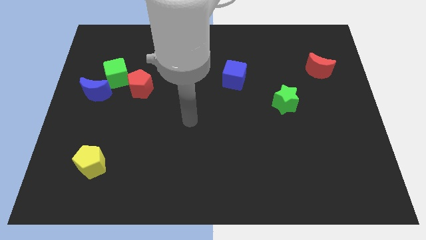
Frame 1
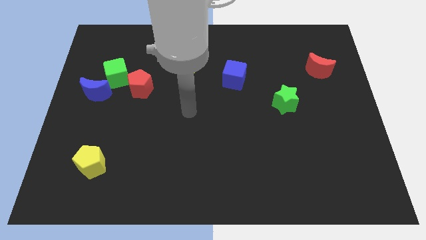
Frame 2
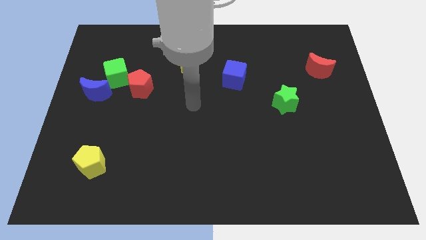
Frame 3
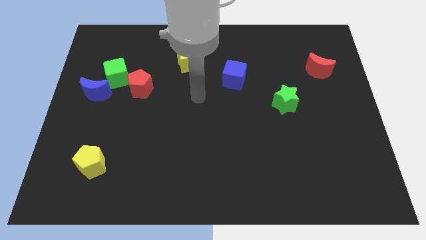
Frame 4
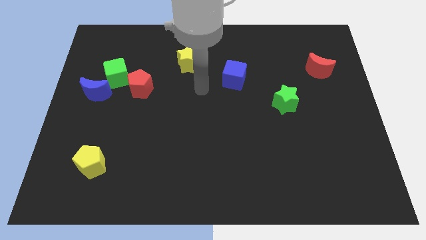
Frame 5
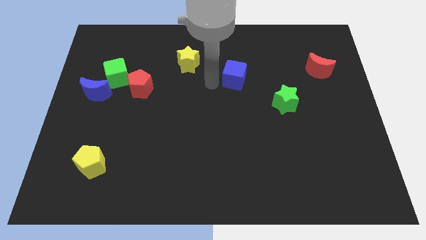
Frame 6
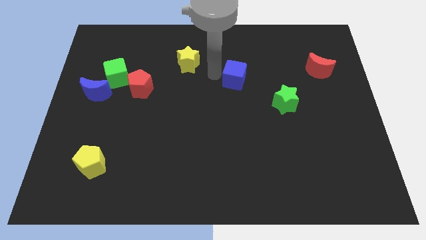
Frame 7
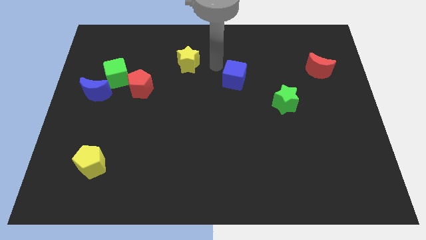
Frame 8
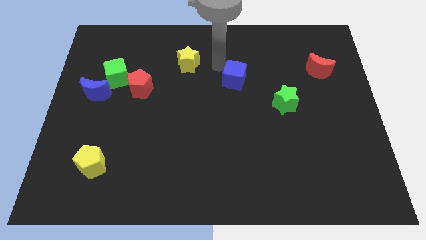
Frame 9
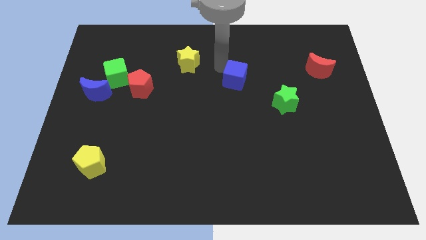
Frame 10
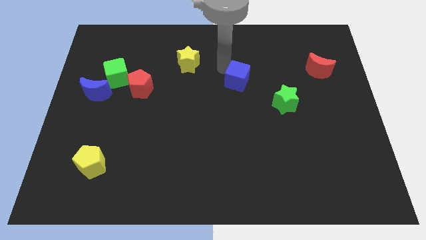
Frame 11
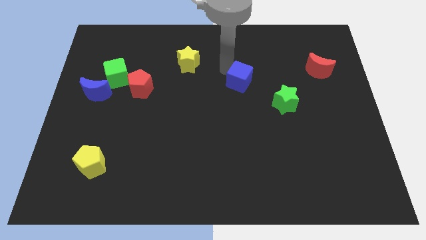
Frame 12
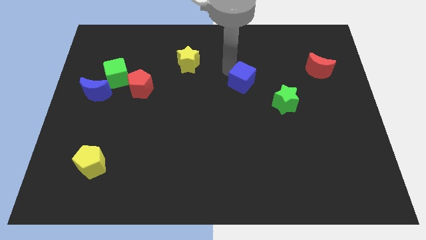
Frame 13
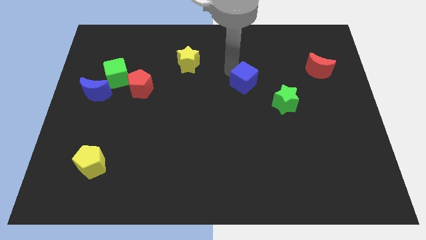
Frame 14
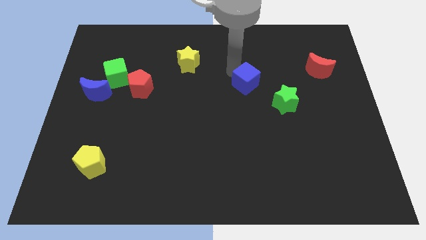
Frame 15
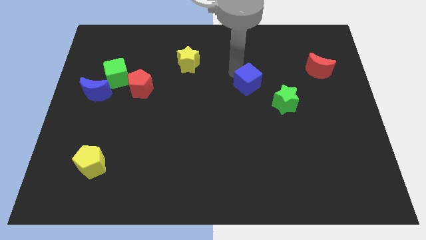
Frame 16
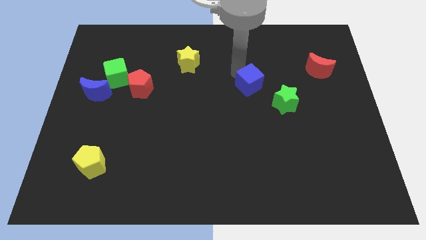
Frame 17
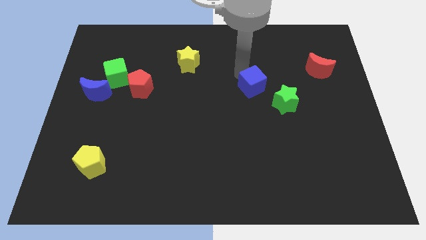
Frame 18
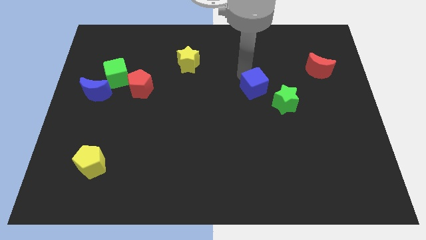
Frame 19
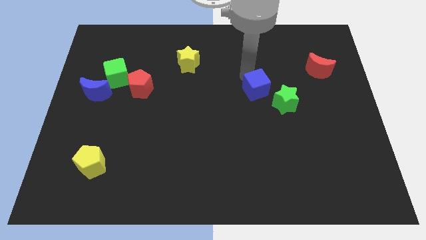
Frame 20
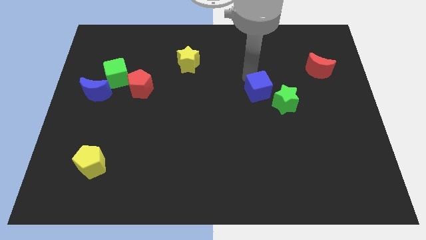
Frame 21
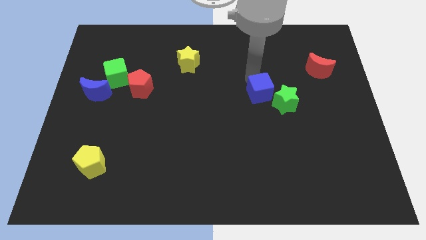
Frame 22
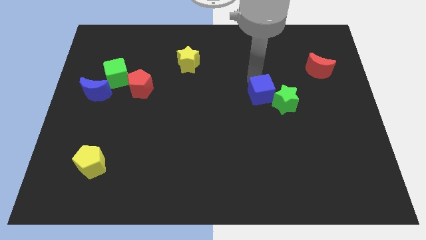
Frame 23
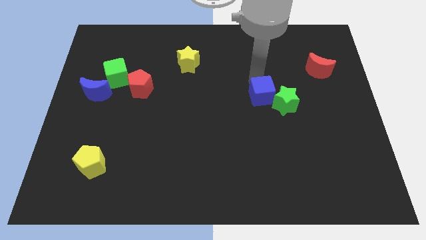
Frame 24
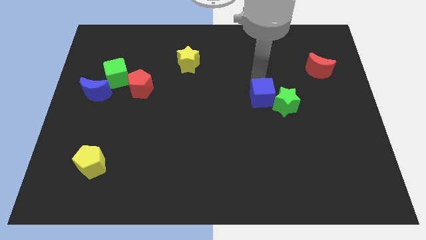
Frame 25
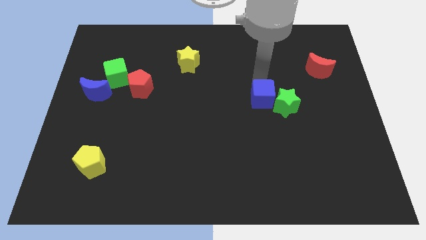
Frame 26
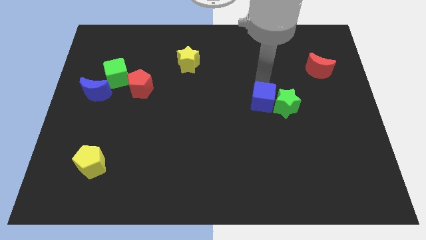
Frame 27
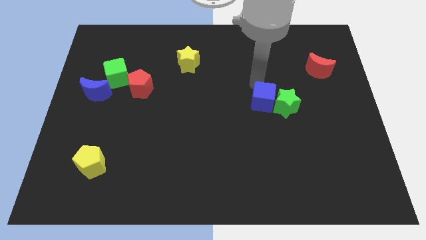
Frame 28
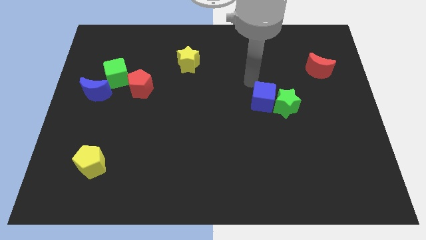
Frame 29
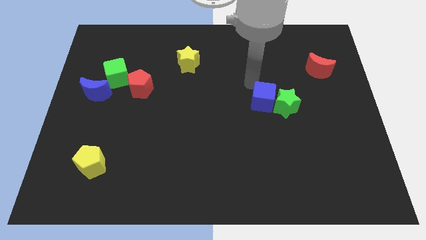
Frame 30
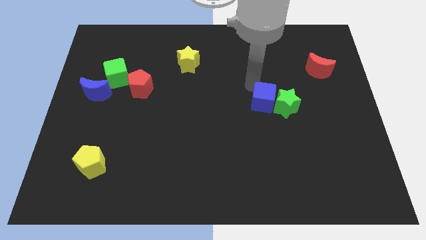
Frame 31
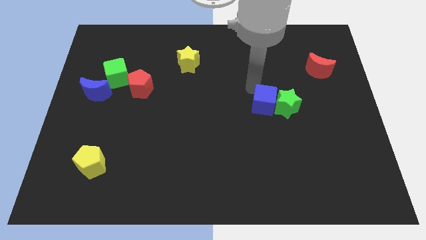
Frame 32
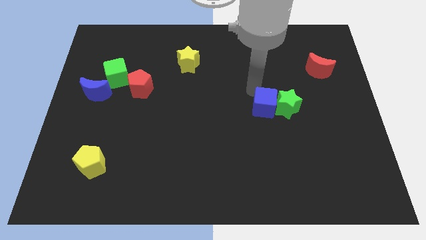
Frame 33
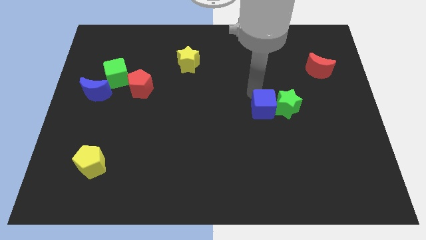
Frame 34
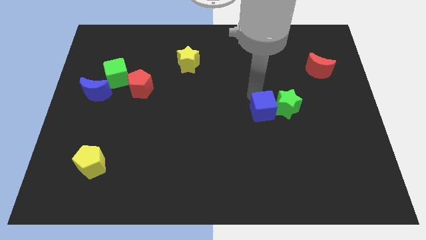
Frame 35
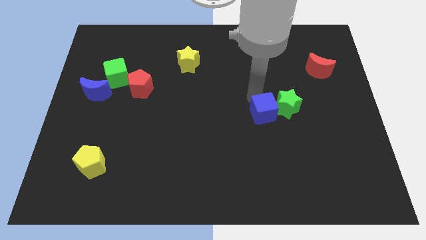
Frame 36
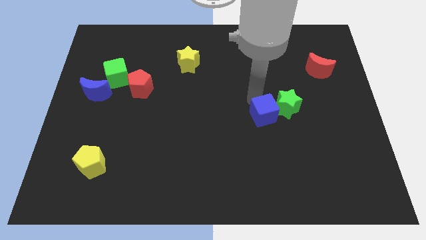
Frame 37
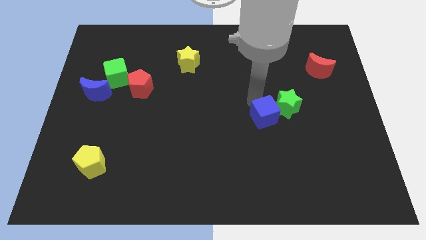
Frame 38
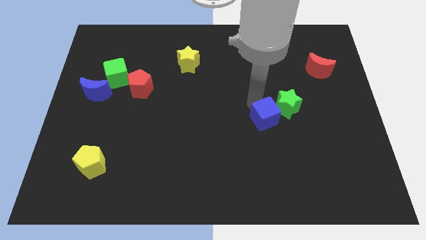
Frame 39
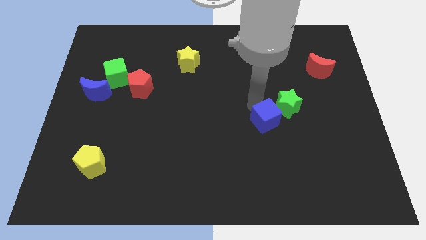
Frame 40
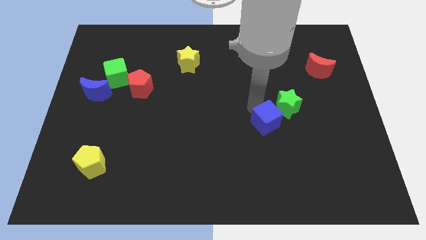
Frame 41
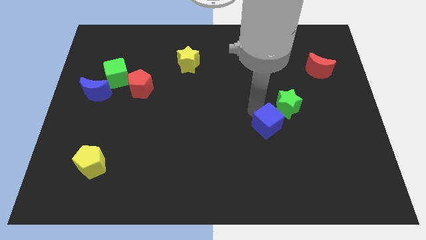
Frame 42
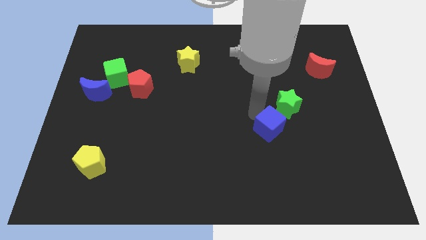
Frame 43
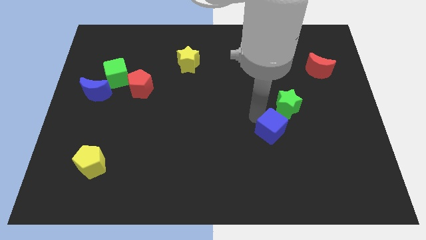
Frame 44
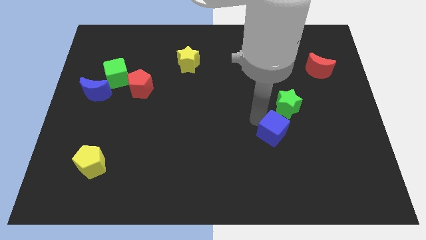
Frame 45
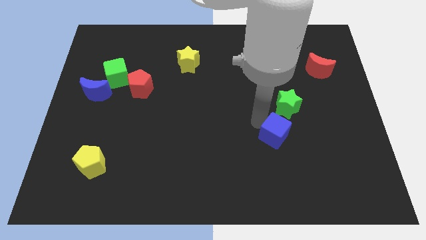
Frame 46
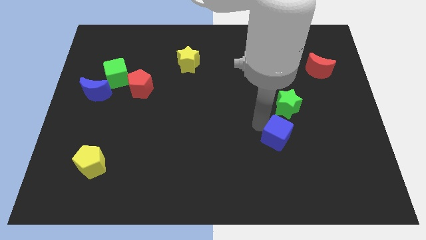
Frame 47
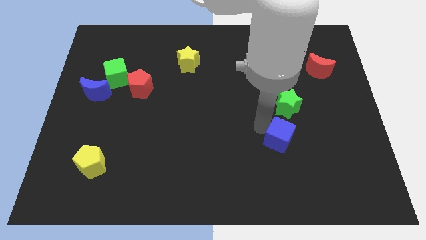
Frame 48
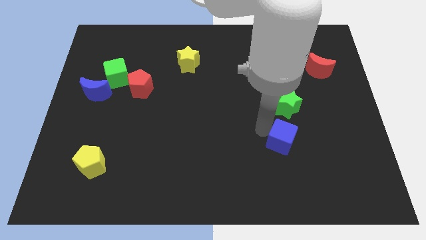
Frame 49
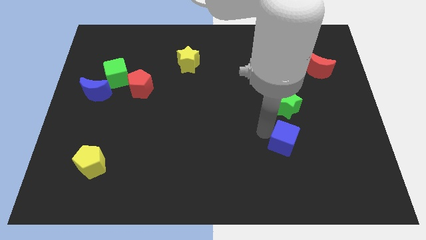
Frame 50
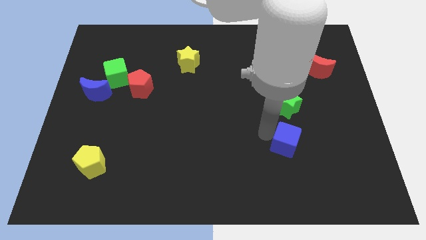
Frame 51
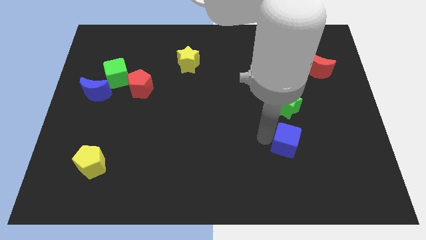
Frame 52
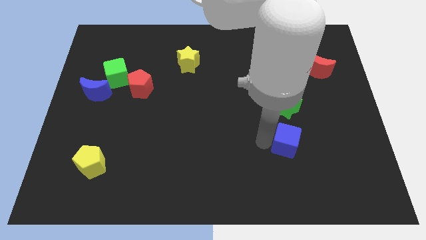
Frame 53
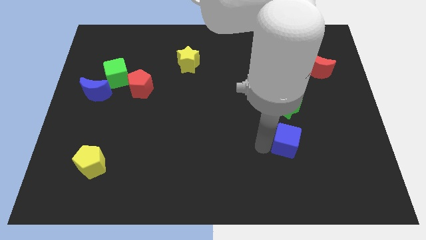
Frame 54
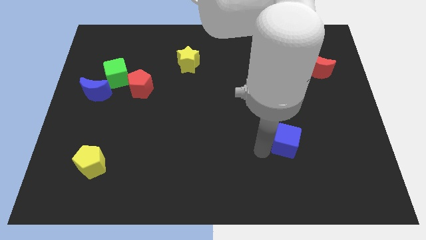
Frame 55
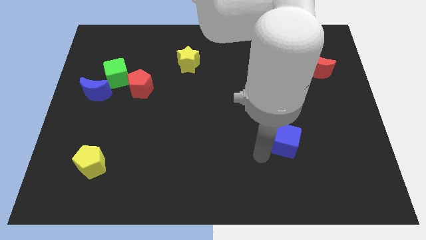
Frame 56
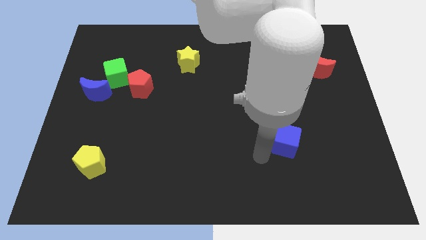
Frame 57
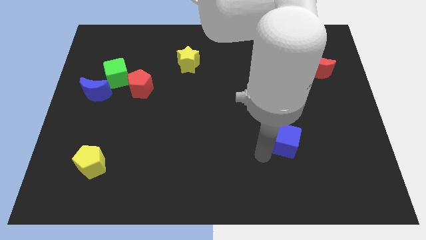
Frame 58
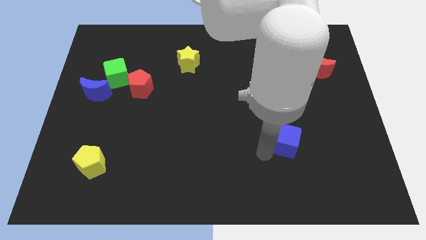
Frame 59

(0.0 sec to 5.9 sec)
push the blue cube down and then to the right

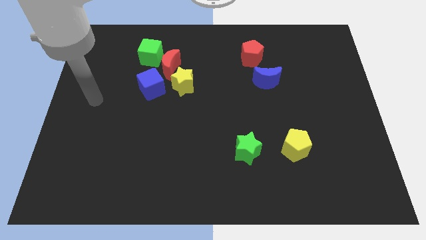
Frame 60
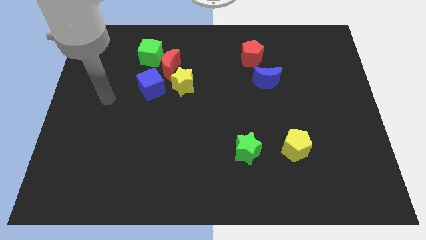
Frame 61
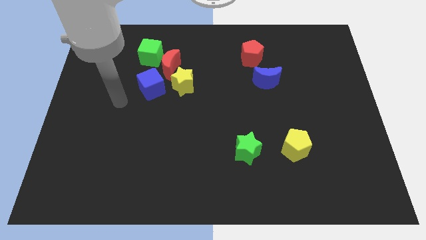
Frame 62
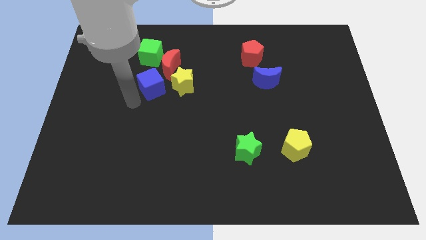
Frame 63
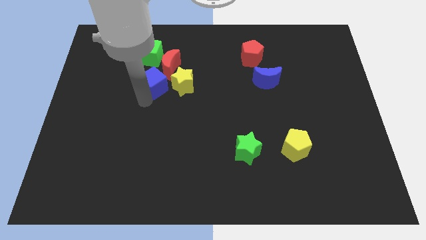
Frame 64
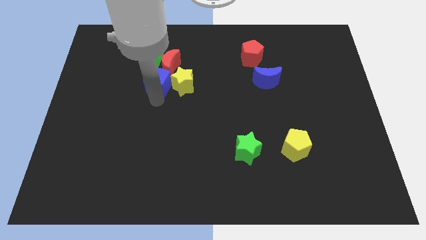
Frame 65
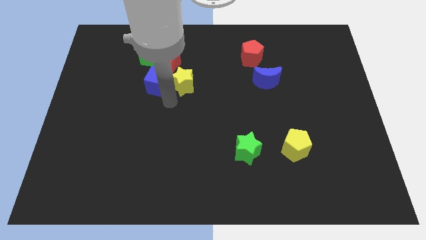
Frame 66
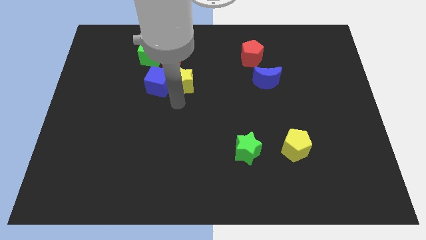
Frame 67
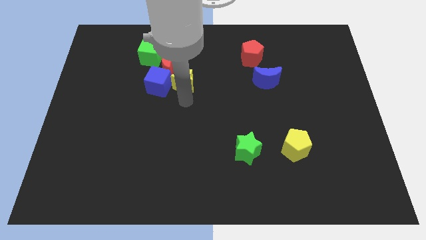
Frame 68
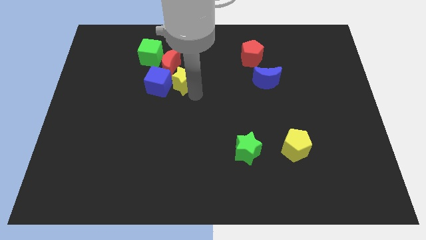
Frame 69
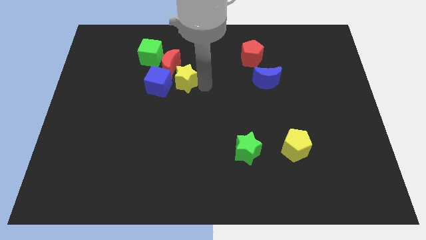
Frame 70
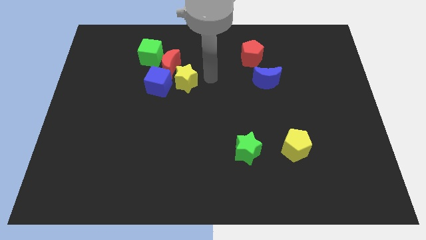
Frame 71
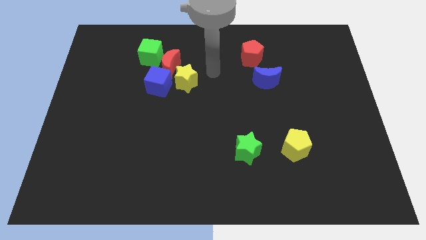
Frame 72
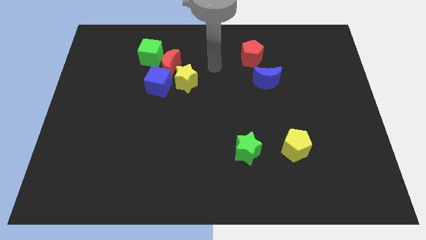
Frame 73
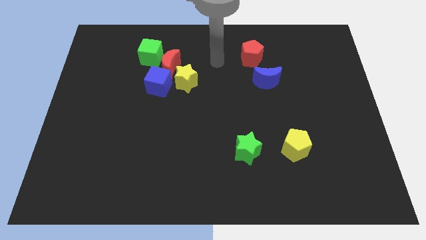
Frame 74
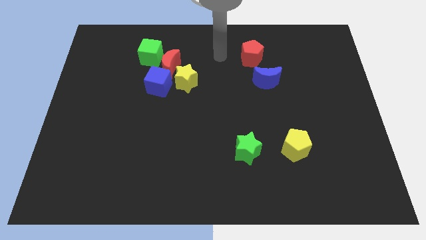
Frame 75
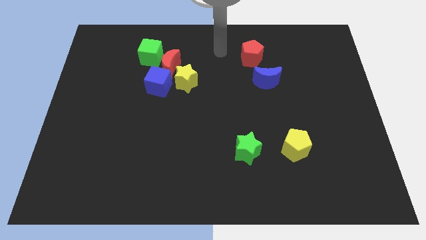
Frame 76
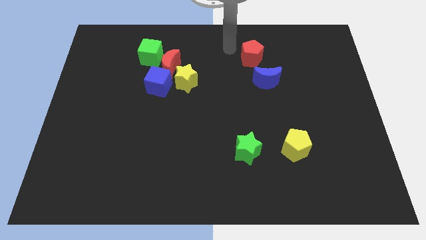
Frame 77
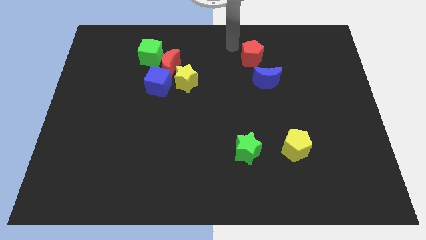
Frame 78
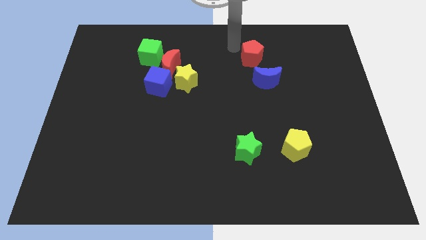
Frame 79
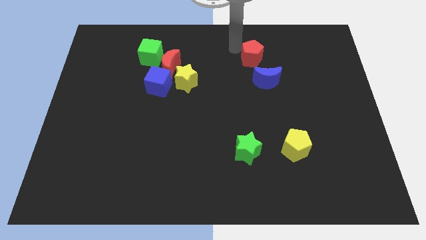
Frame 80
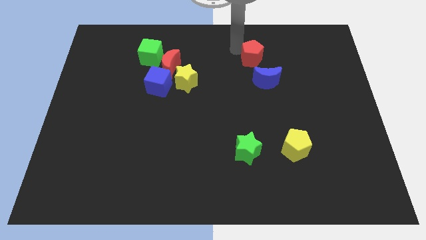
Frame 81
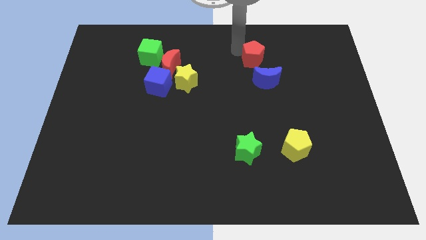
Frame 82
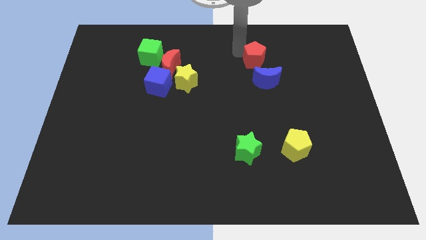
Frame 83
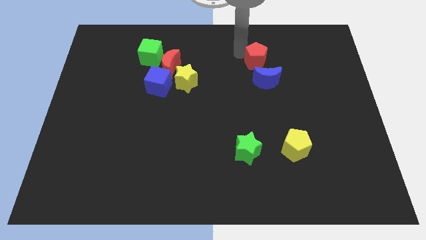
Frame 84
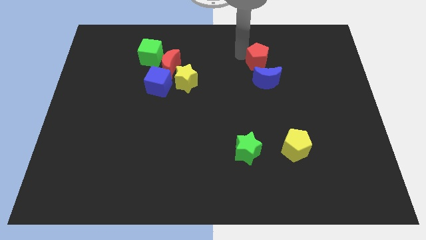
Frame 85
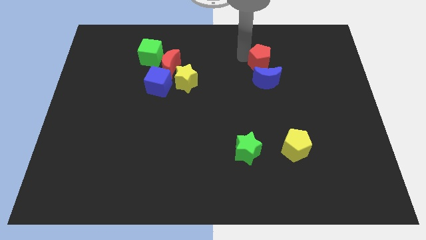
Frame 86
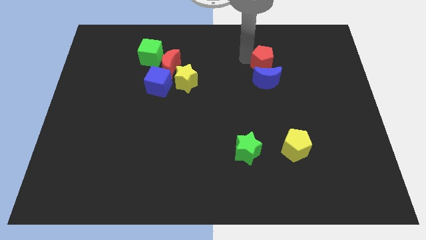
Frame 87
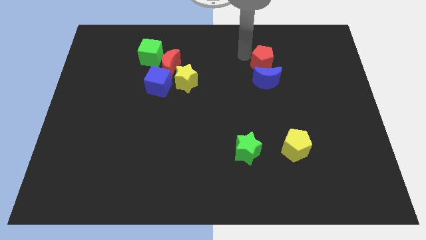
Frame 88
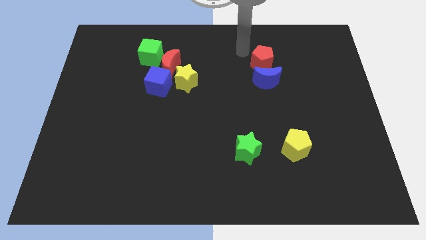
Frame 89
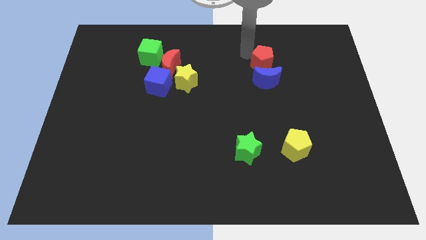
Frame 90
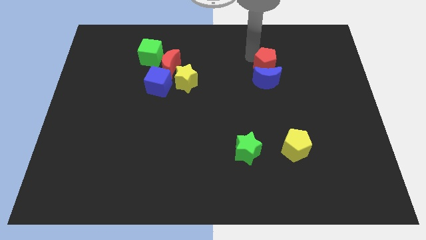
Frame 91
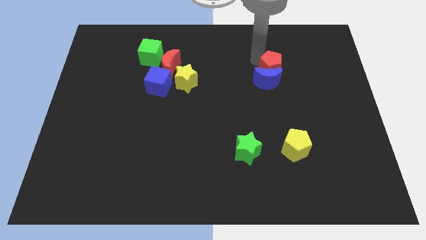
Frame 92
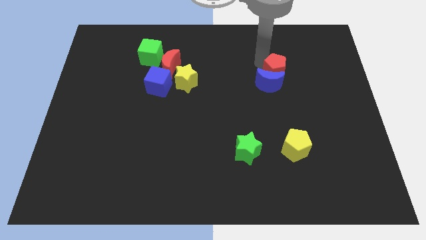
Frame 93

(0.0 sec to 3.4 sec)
slide the red pentagon downwards and to the right diagonally a little bit
